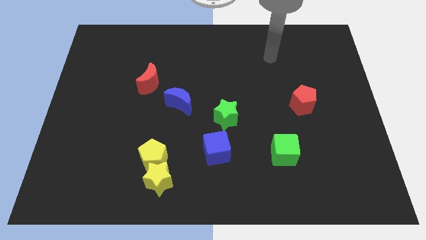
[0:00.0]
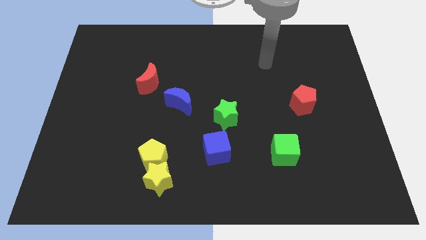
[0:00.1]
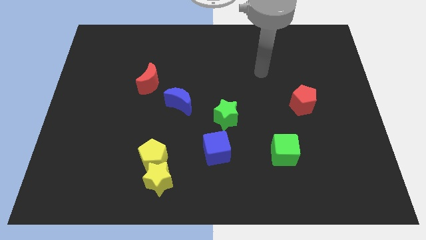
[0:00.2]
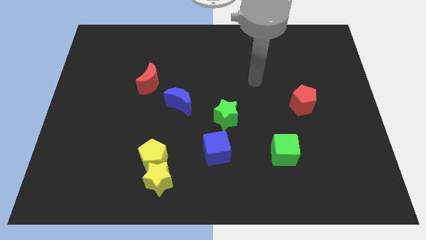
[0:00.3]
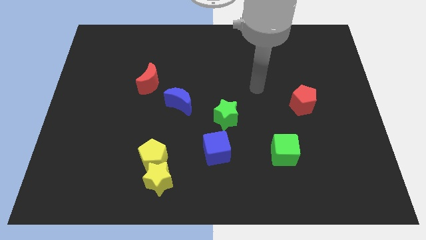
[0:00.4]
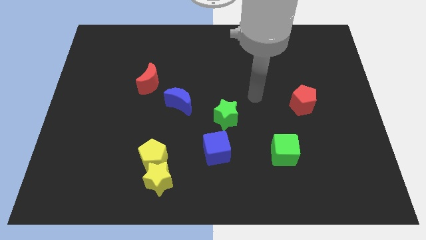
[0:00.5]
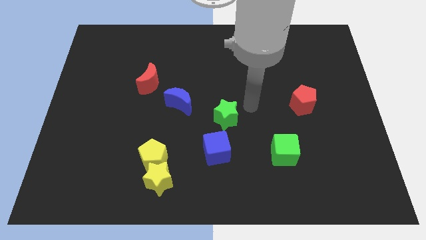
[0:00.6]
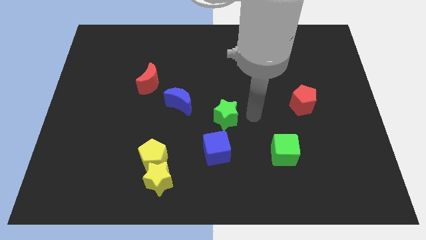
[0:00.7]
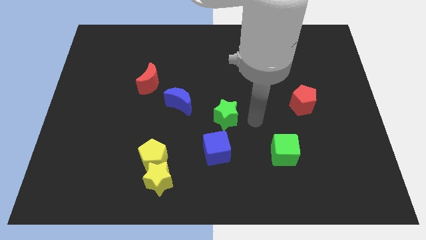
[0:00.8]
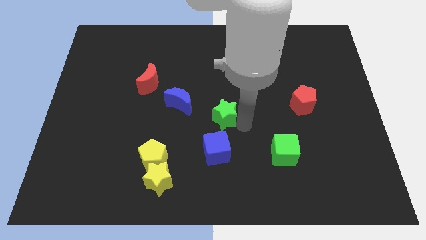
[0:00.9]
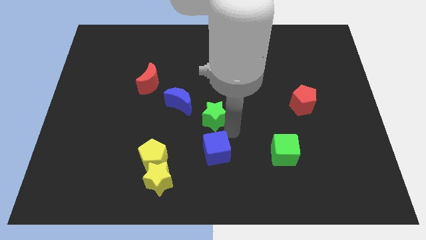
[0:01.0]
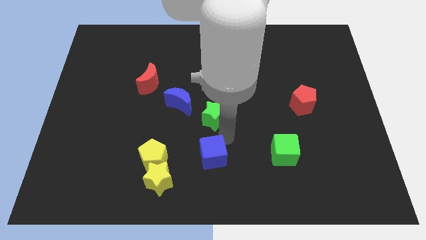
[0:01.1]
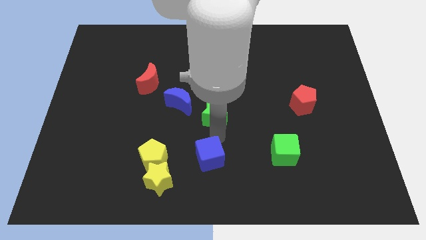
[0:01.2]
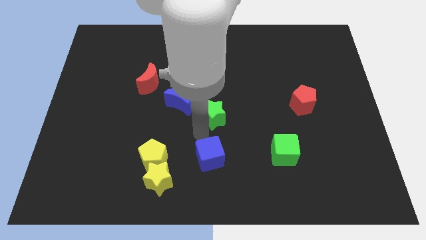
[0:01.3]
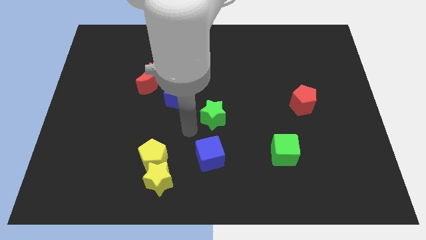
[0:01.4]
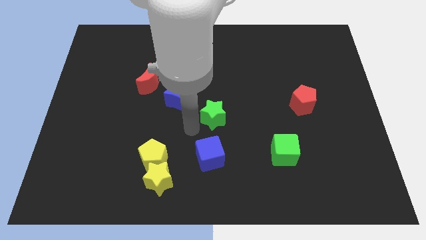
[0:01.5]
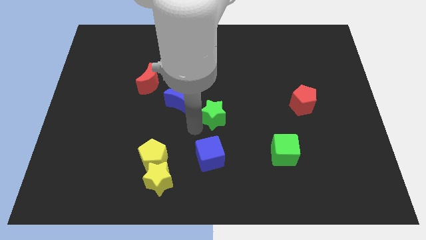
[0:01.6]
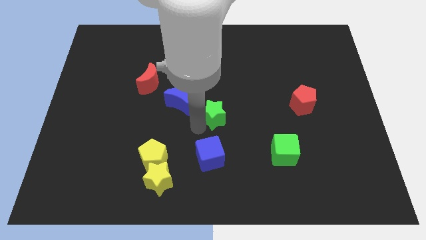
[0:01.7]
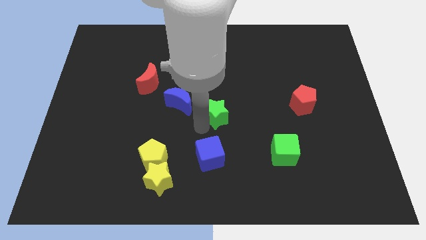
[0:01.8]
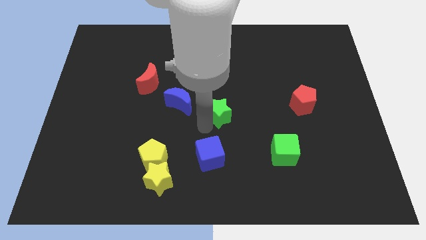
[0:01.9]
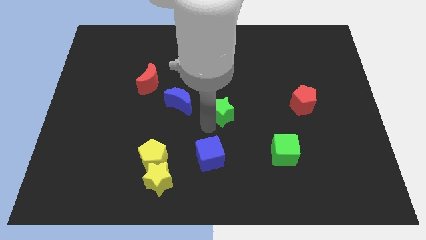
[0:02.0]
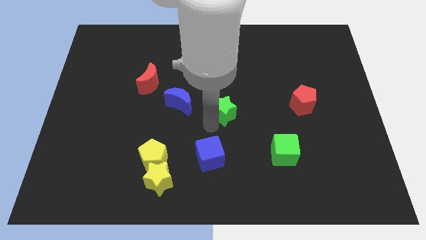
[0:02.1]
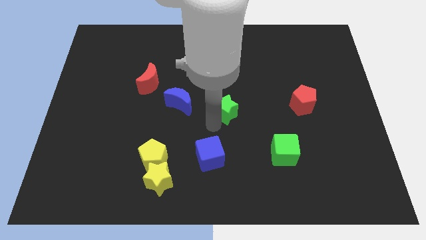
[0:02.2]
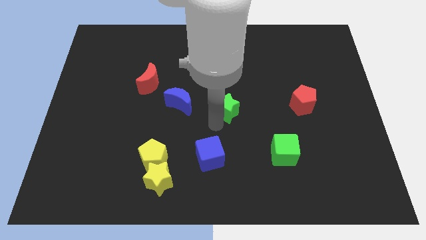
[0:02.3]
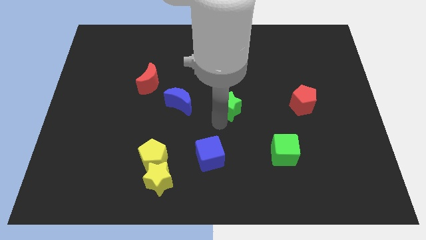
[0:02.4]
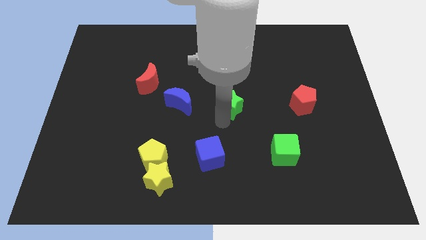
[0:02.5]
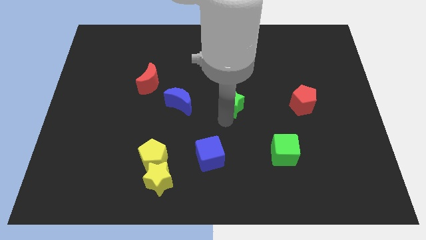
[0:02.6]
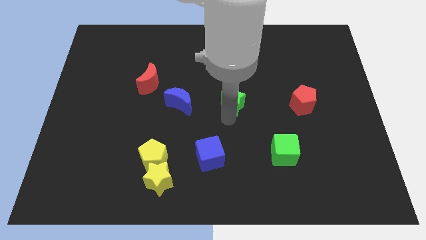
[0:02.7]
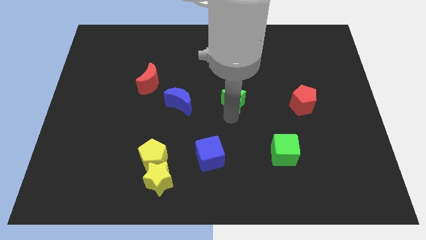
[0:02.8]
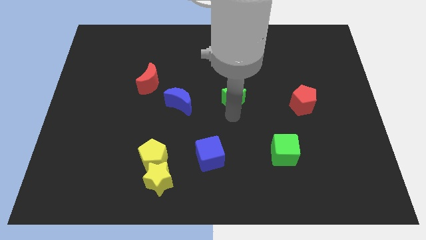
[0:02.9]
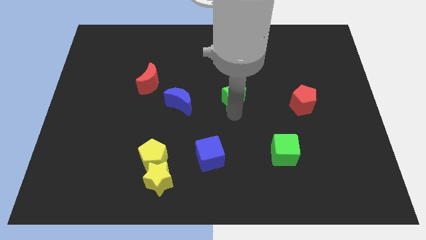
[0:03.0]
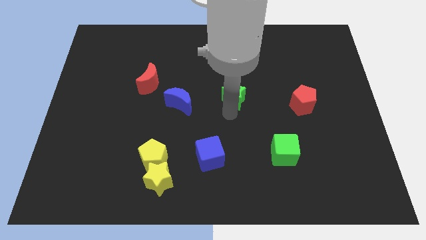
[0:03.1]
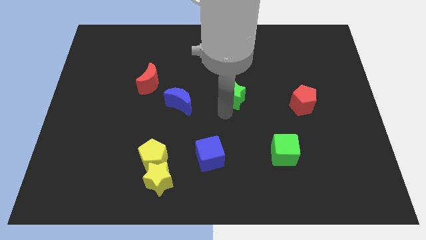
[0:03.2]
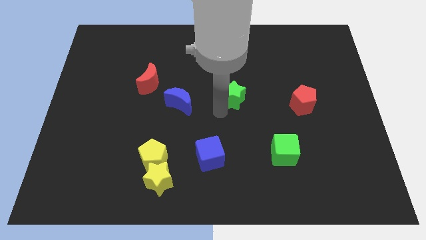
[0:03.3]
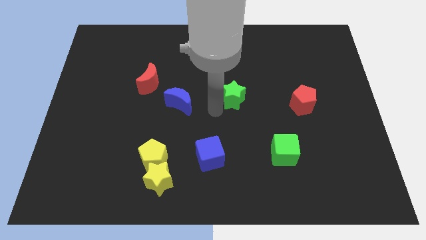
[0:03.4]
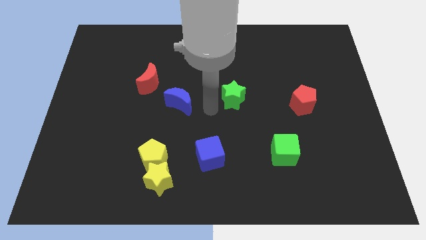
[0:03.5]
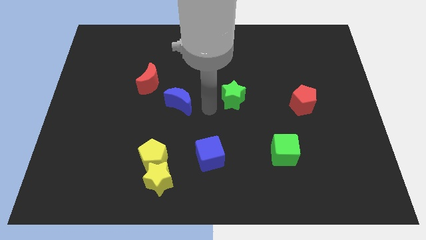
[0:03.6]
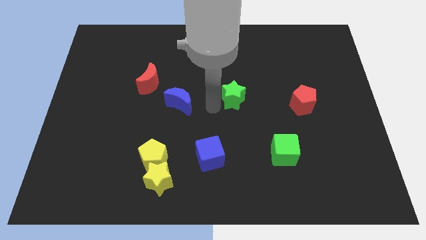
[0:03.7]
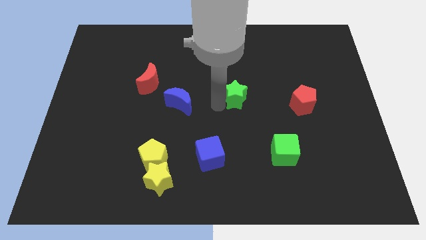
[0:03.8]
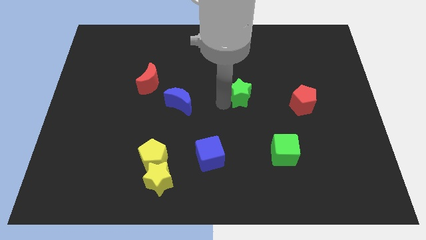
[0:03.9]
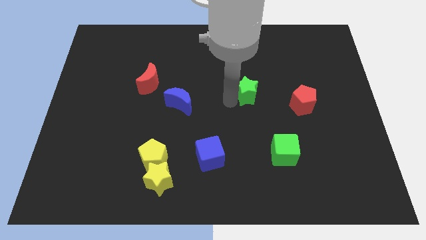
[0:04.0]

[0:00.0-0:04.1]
slightly slide the green star up and right diagonally

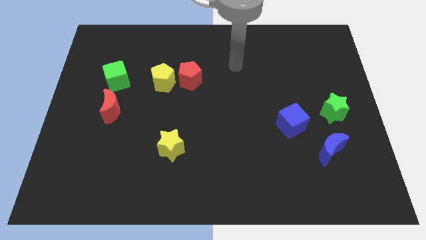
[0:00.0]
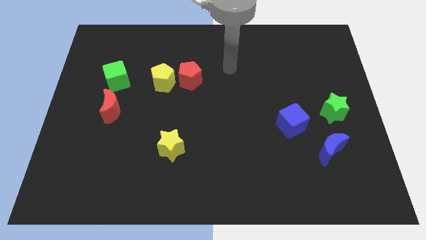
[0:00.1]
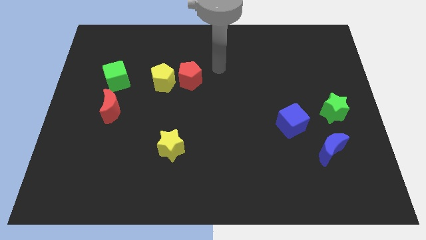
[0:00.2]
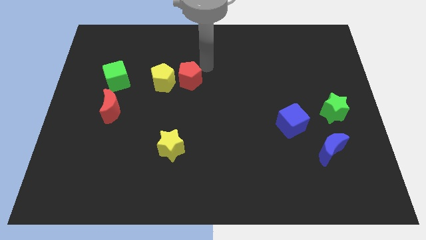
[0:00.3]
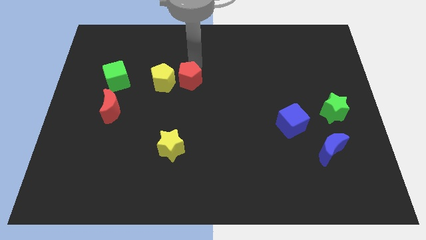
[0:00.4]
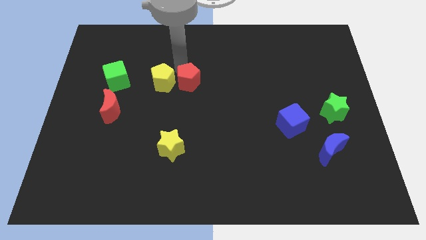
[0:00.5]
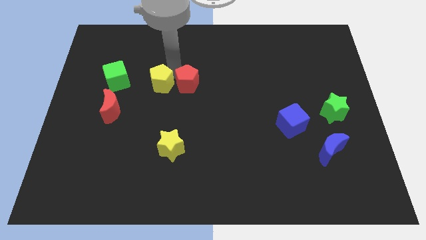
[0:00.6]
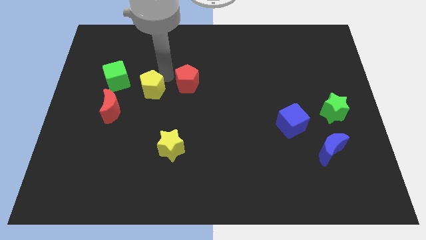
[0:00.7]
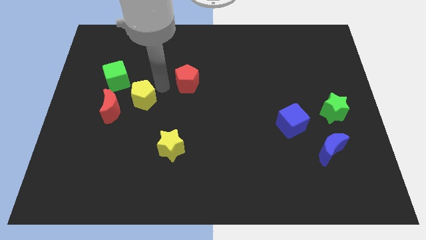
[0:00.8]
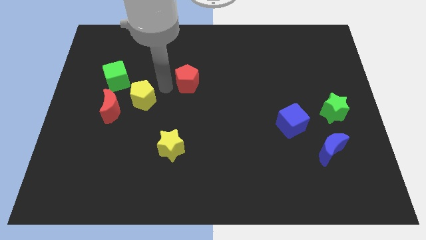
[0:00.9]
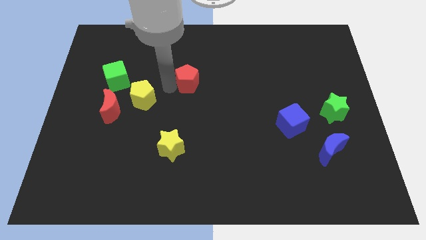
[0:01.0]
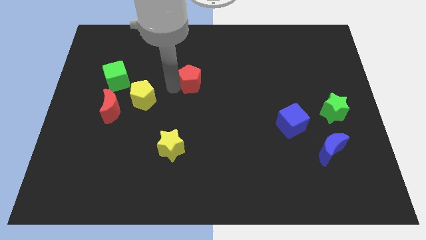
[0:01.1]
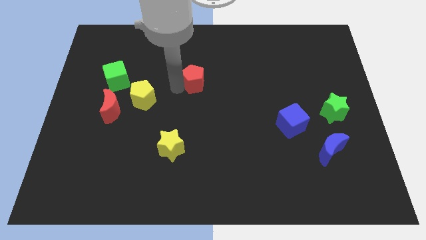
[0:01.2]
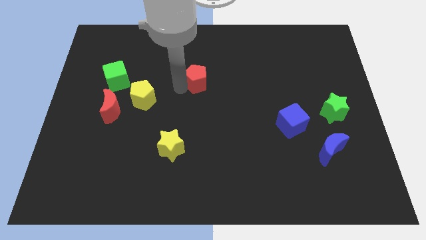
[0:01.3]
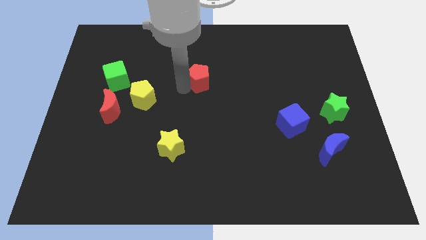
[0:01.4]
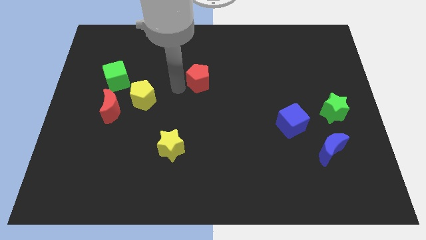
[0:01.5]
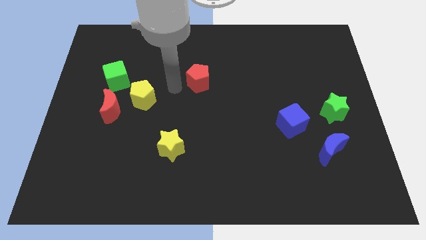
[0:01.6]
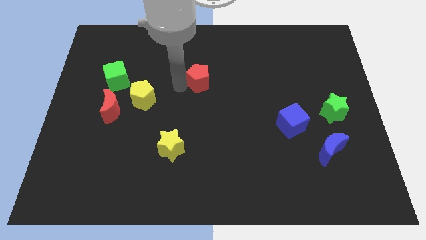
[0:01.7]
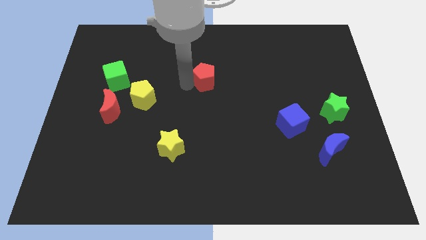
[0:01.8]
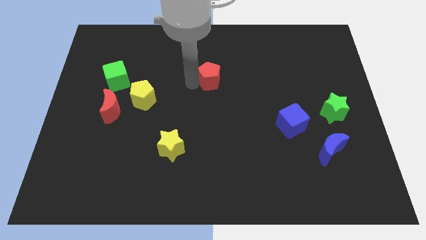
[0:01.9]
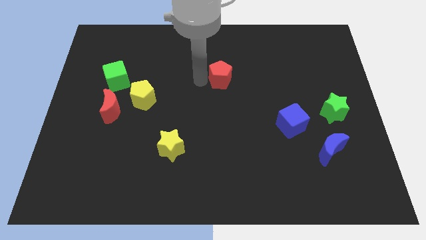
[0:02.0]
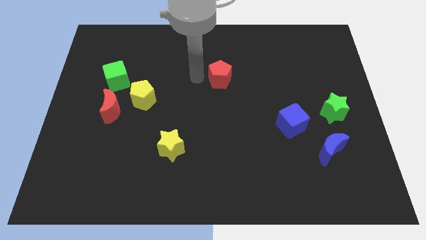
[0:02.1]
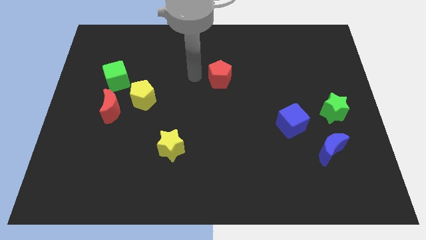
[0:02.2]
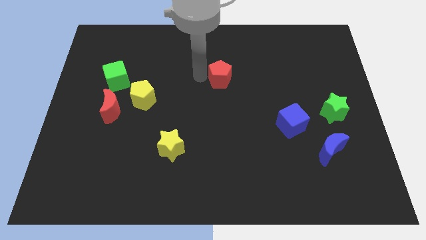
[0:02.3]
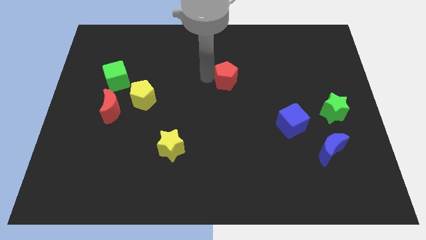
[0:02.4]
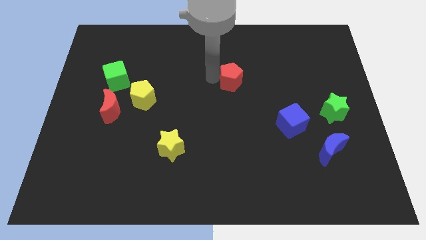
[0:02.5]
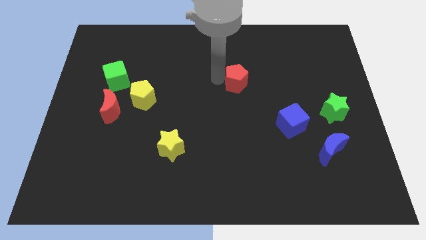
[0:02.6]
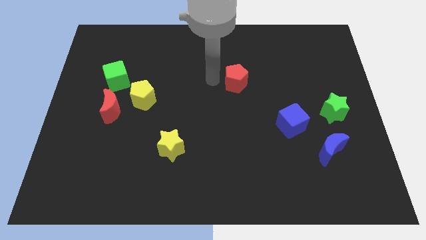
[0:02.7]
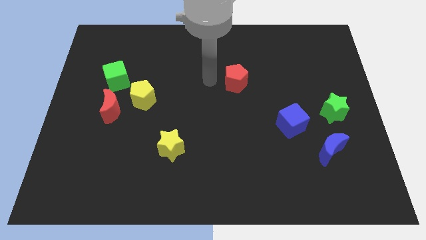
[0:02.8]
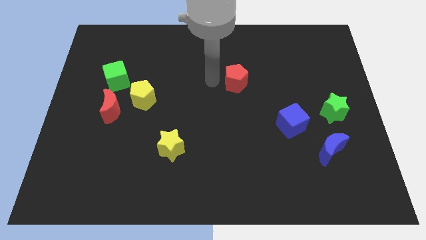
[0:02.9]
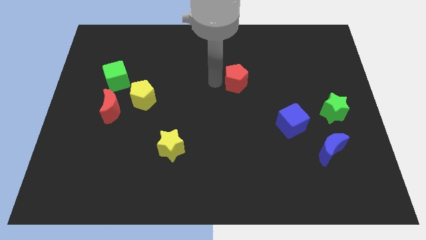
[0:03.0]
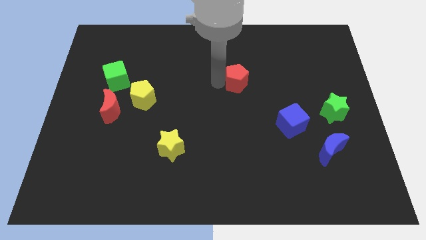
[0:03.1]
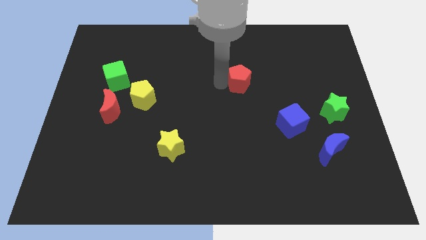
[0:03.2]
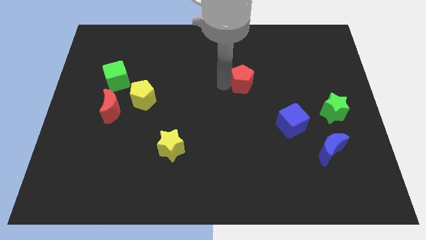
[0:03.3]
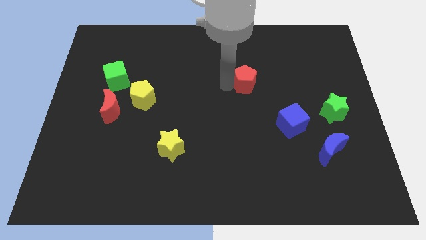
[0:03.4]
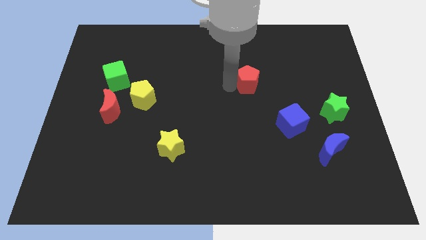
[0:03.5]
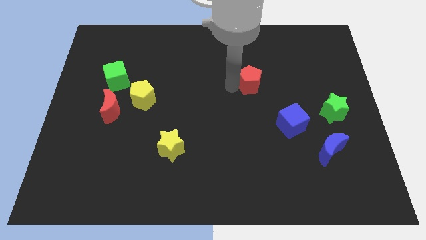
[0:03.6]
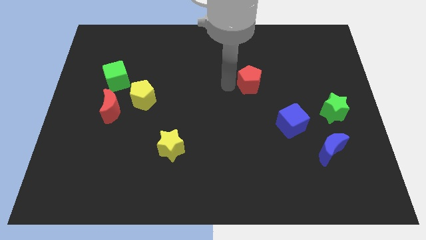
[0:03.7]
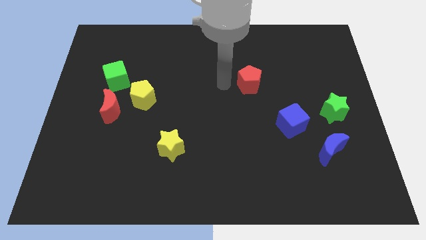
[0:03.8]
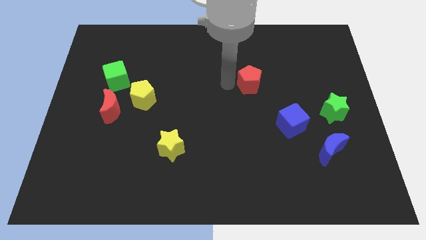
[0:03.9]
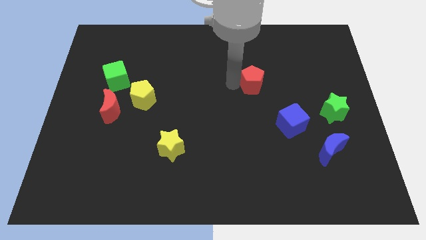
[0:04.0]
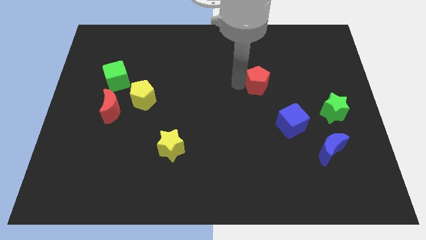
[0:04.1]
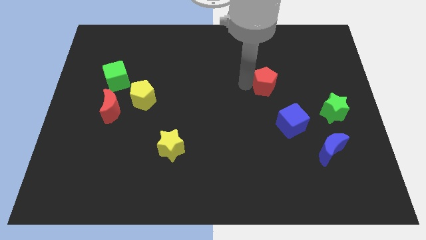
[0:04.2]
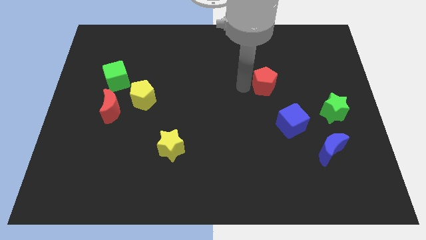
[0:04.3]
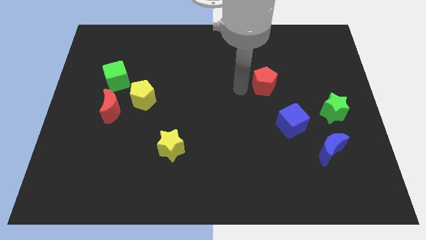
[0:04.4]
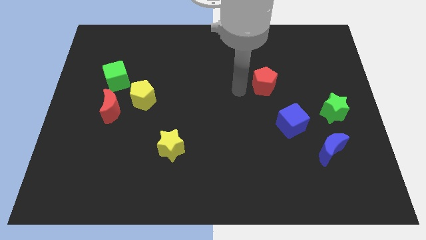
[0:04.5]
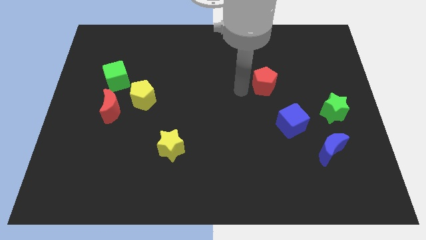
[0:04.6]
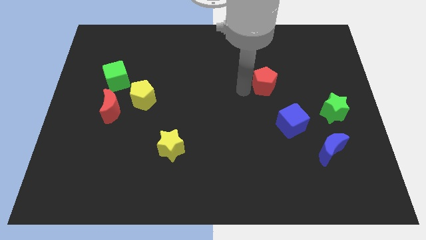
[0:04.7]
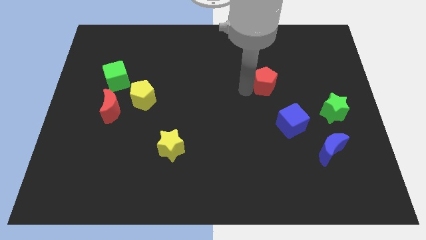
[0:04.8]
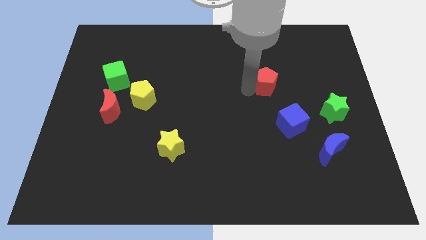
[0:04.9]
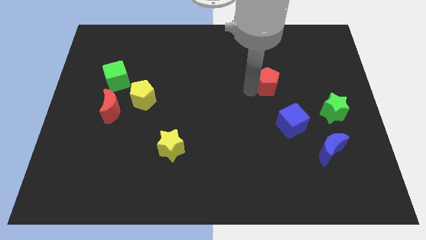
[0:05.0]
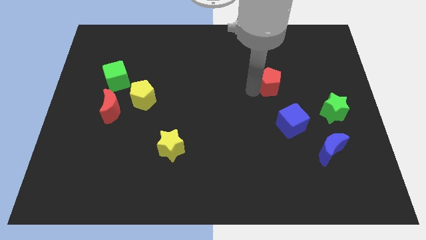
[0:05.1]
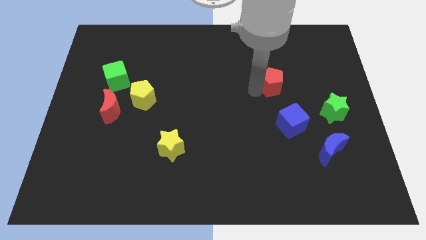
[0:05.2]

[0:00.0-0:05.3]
move the red pentagon right
